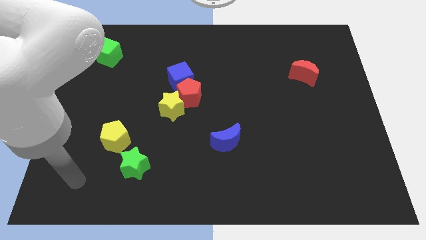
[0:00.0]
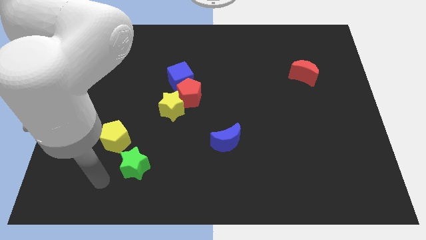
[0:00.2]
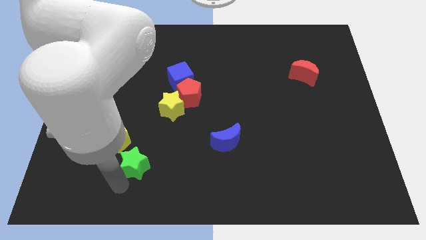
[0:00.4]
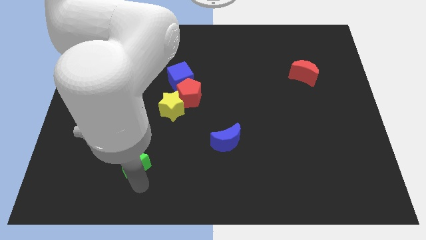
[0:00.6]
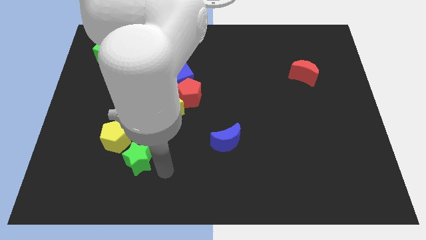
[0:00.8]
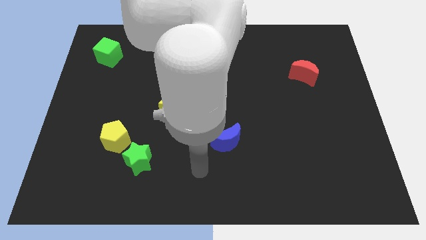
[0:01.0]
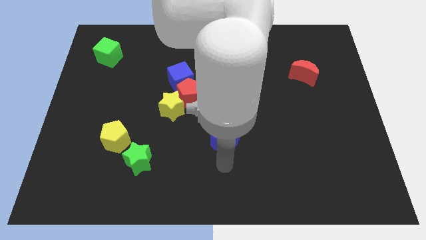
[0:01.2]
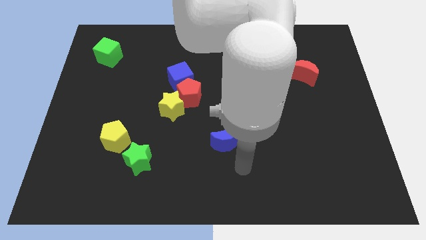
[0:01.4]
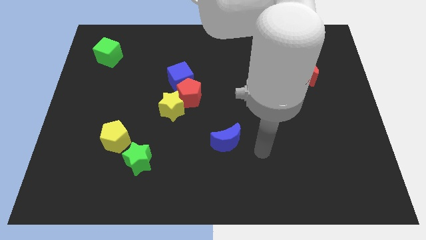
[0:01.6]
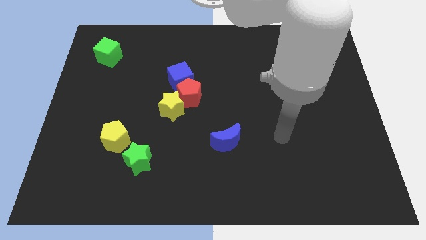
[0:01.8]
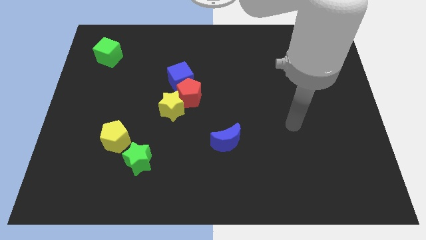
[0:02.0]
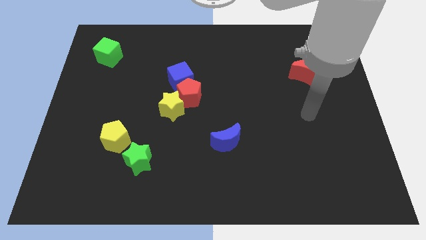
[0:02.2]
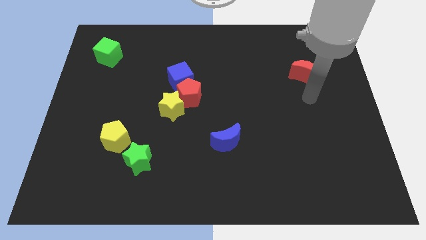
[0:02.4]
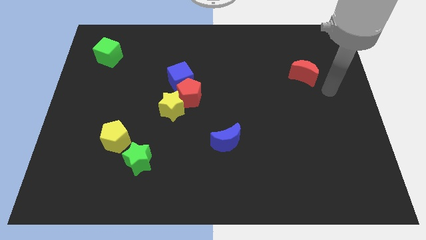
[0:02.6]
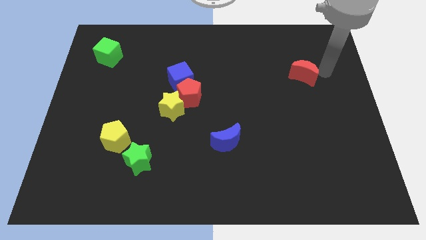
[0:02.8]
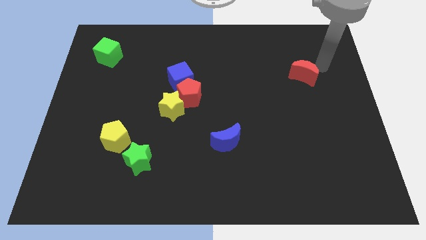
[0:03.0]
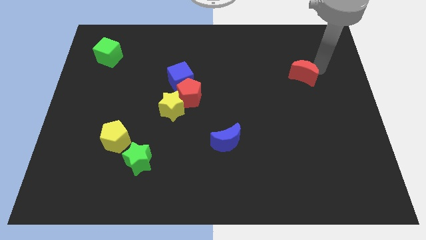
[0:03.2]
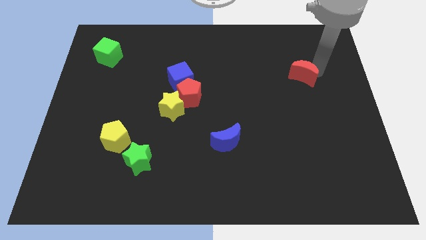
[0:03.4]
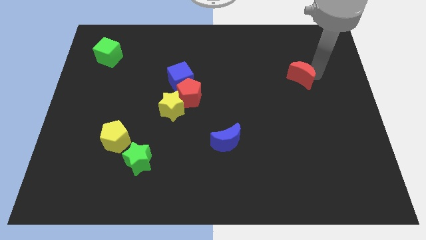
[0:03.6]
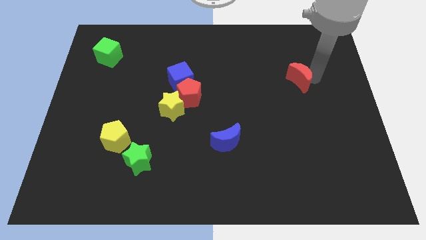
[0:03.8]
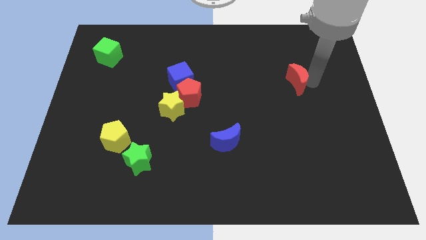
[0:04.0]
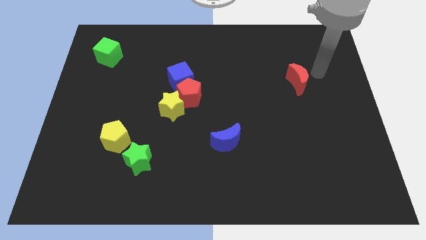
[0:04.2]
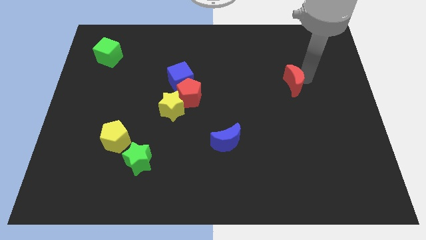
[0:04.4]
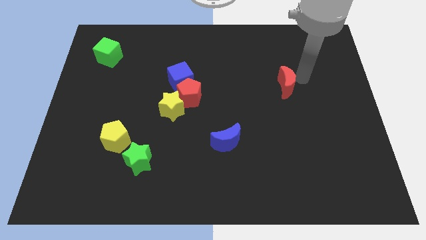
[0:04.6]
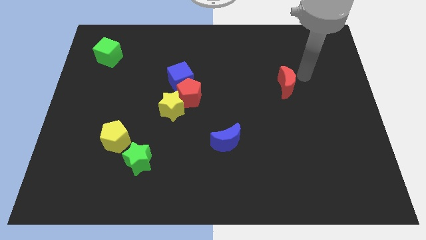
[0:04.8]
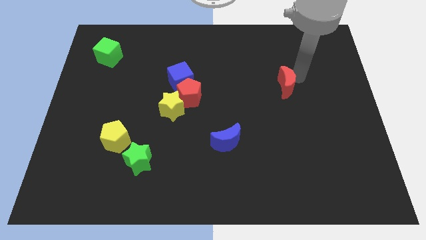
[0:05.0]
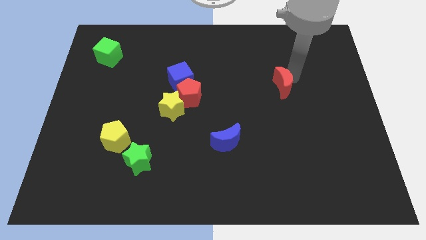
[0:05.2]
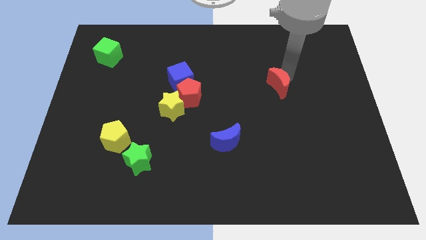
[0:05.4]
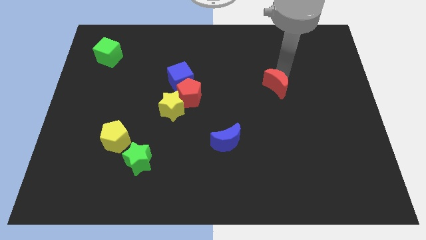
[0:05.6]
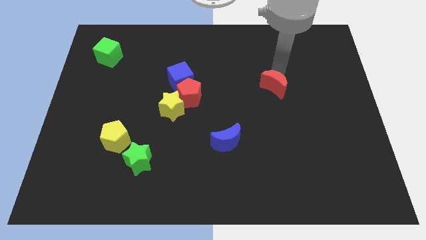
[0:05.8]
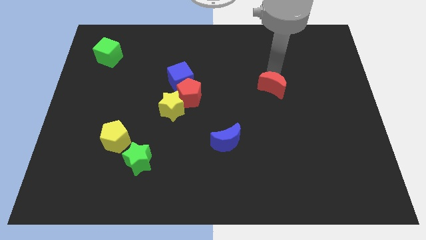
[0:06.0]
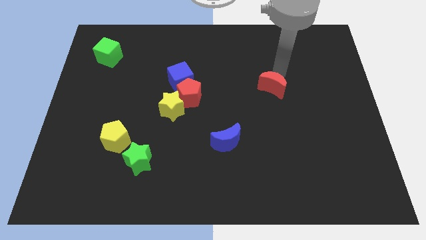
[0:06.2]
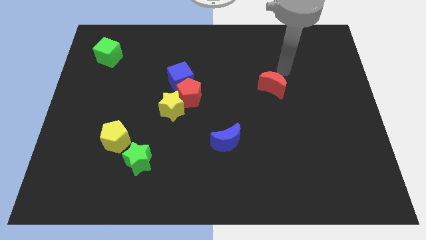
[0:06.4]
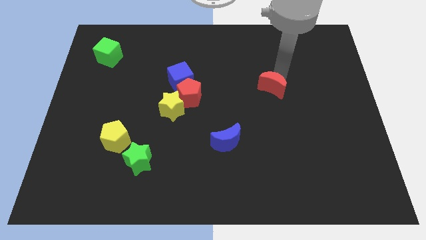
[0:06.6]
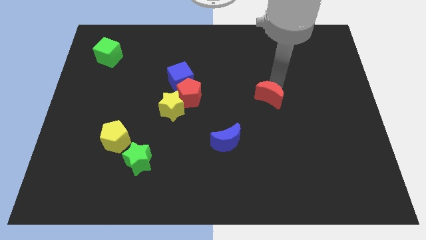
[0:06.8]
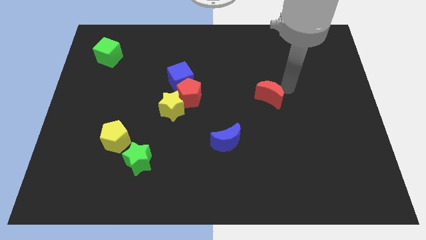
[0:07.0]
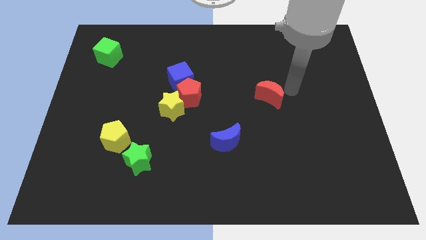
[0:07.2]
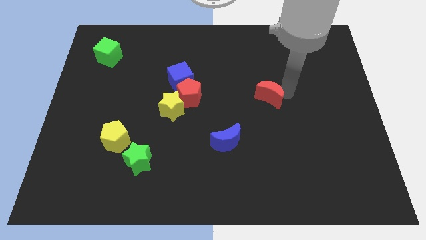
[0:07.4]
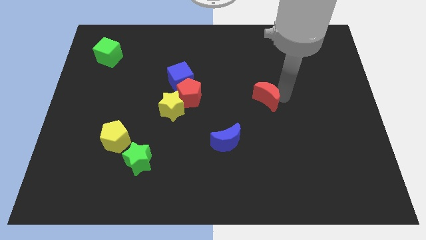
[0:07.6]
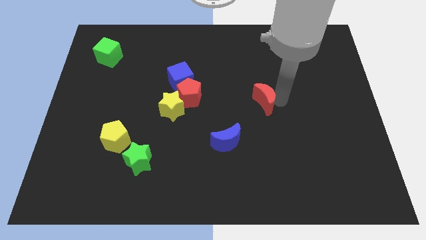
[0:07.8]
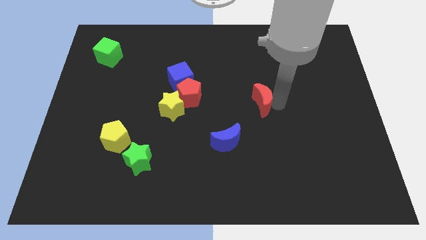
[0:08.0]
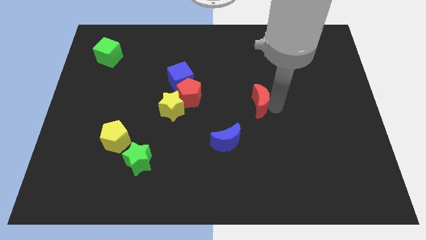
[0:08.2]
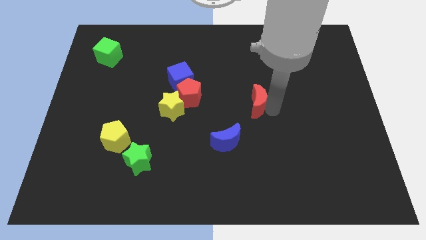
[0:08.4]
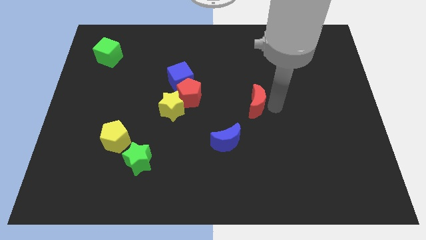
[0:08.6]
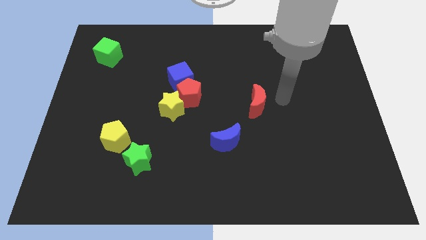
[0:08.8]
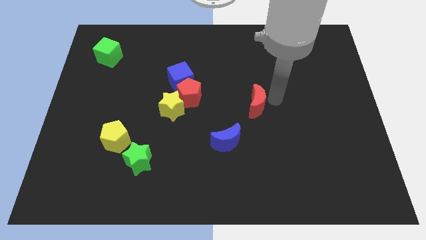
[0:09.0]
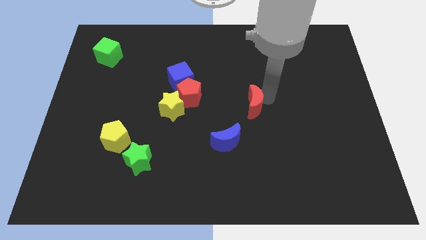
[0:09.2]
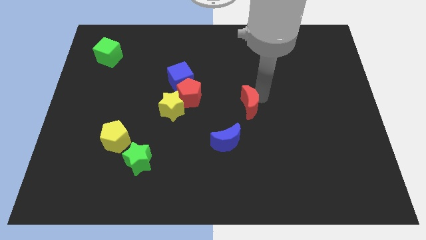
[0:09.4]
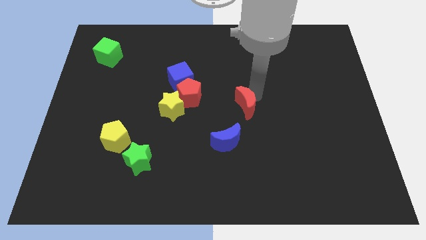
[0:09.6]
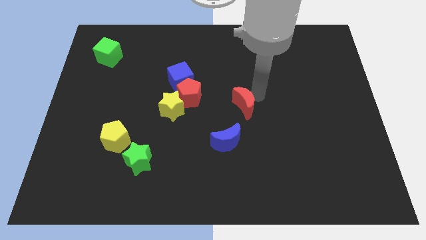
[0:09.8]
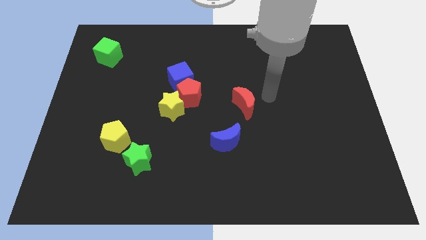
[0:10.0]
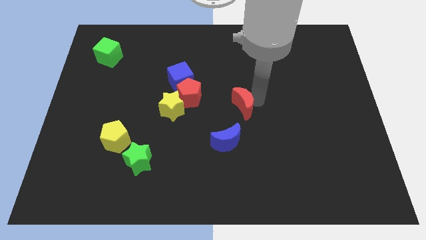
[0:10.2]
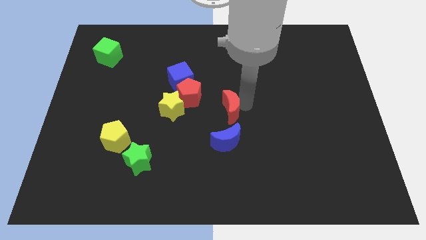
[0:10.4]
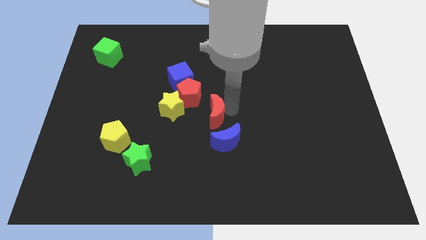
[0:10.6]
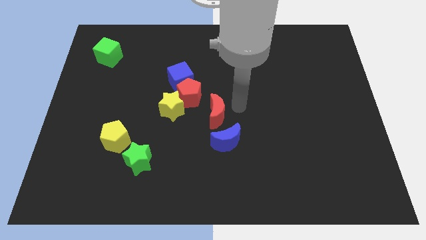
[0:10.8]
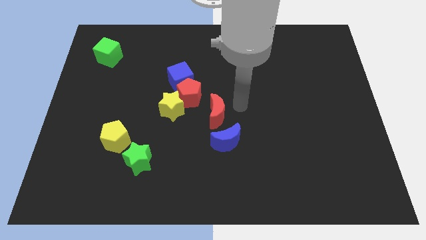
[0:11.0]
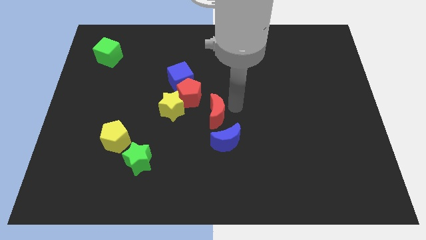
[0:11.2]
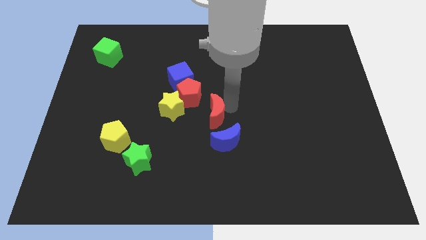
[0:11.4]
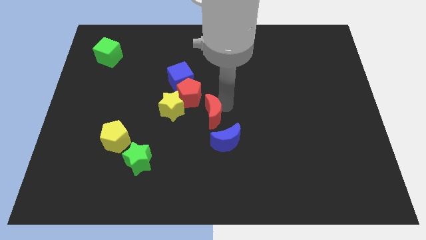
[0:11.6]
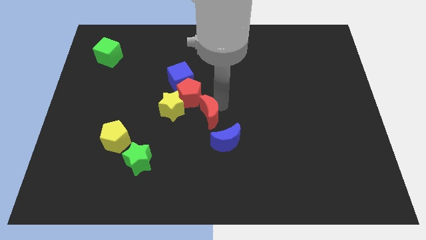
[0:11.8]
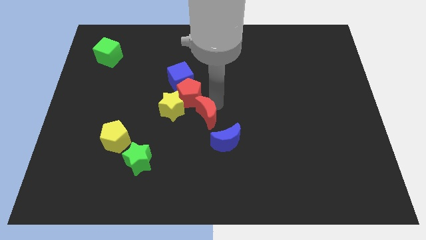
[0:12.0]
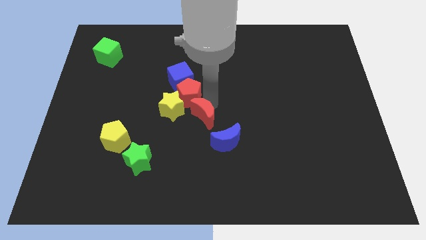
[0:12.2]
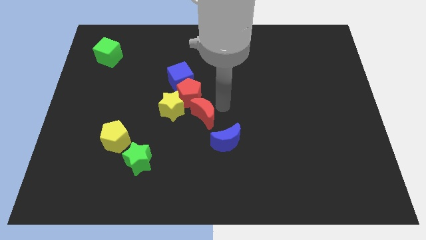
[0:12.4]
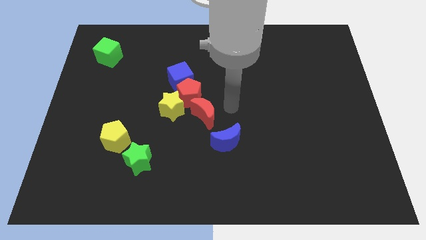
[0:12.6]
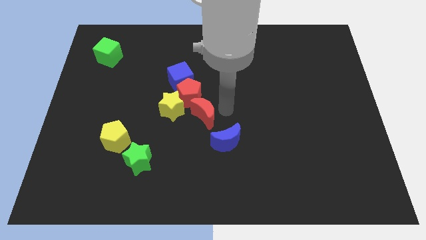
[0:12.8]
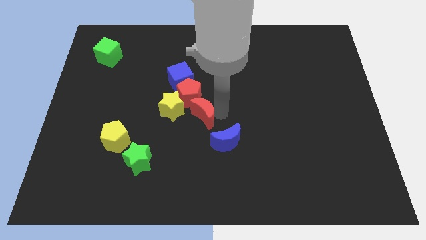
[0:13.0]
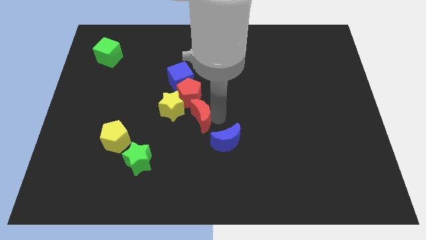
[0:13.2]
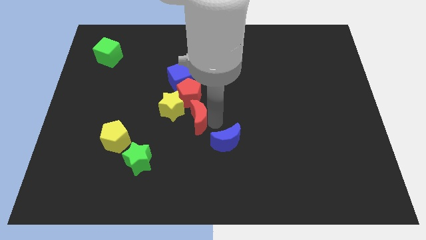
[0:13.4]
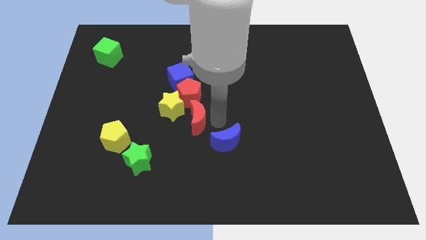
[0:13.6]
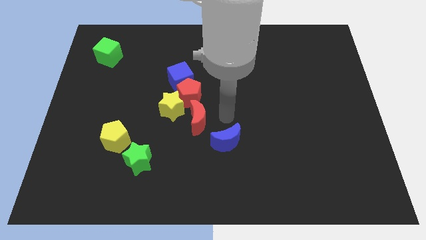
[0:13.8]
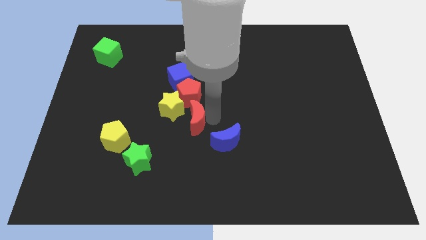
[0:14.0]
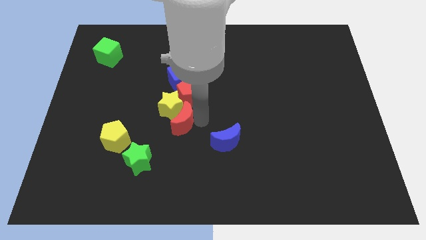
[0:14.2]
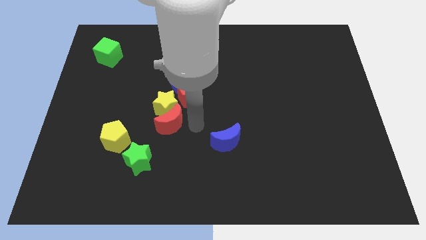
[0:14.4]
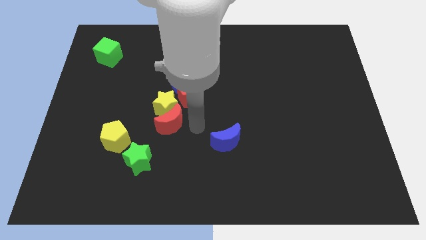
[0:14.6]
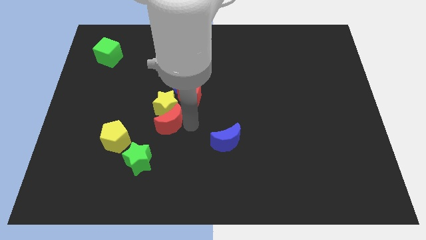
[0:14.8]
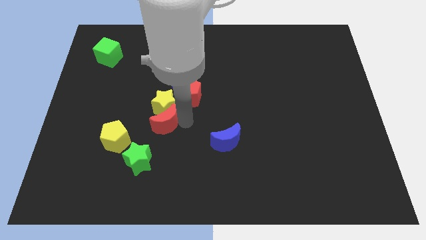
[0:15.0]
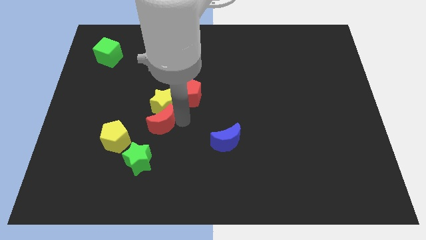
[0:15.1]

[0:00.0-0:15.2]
slide the red moon to the top right side of the yellow pentagon
